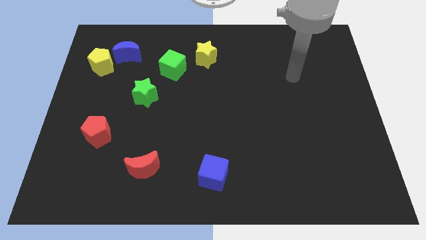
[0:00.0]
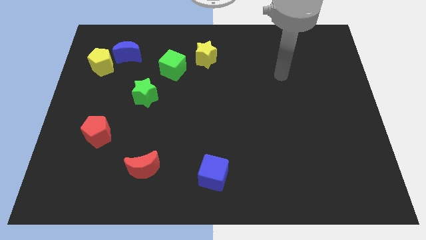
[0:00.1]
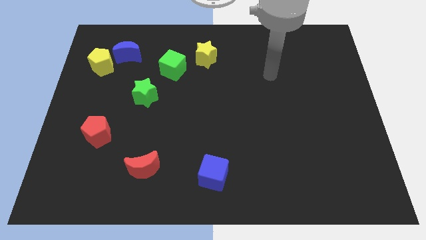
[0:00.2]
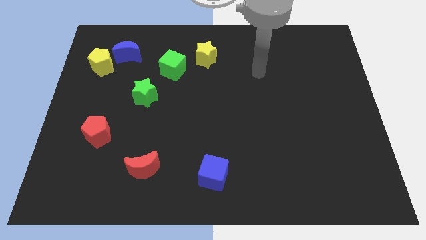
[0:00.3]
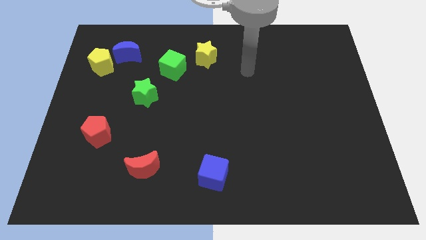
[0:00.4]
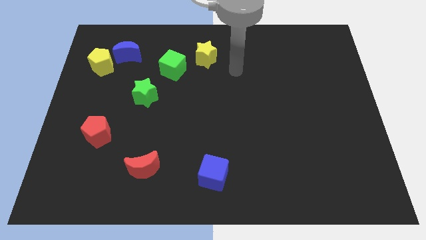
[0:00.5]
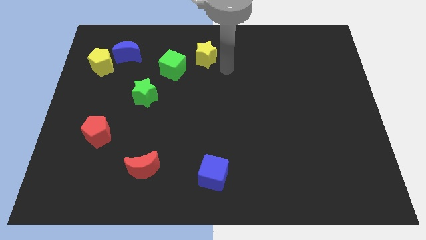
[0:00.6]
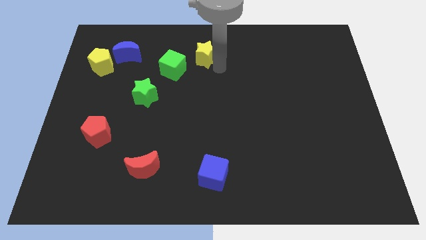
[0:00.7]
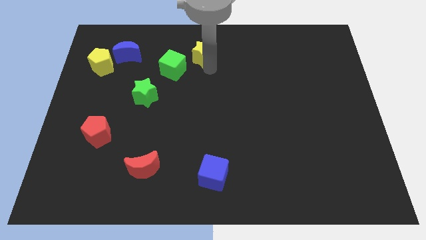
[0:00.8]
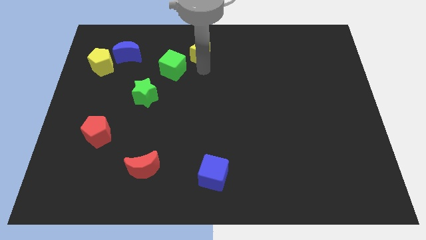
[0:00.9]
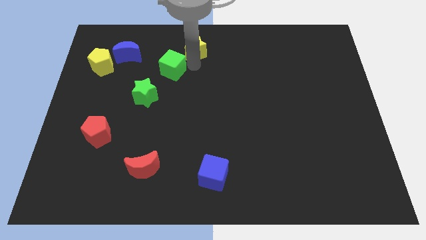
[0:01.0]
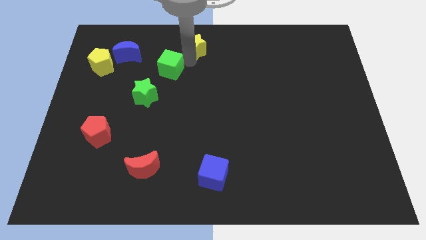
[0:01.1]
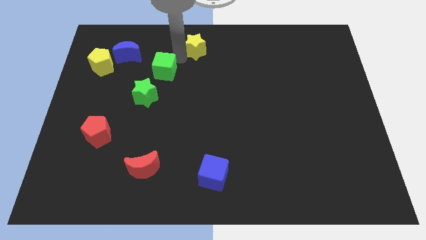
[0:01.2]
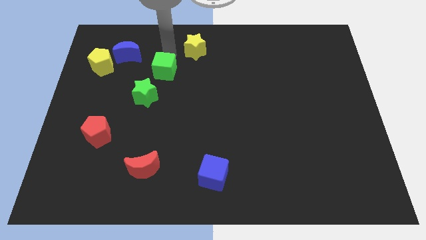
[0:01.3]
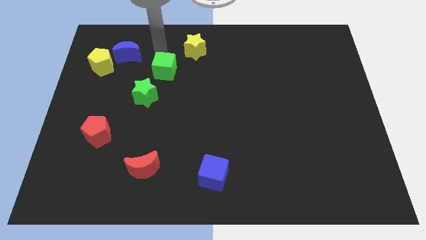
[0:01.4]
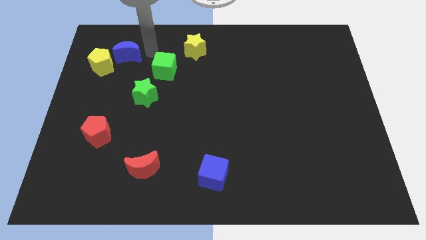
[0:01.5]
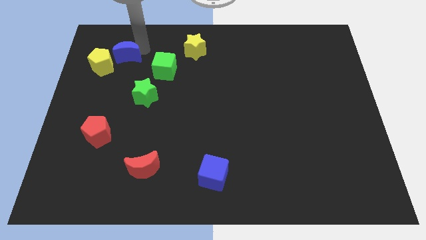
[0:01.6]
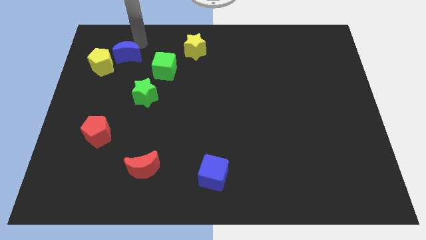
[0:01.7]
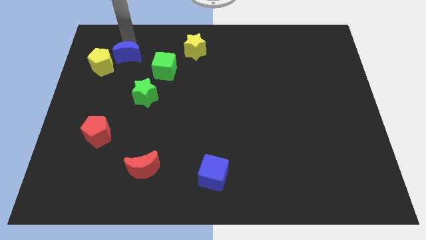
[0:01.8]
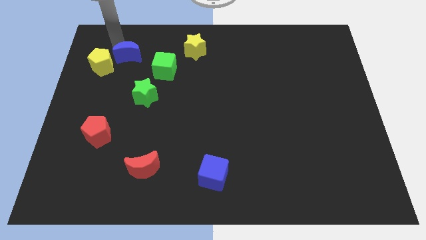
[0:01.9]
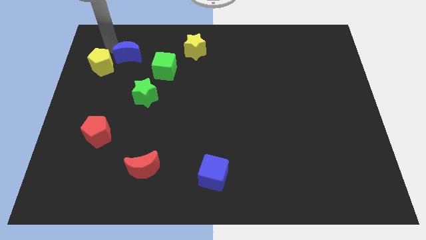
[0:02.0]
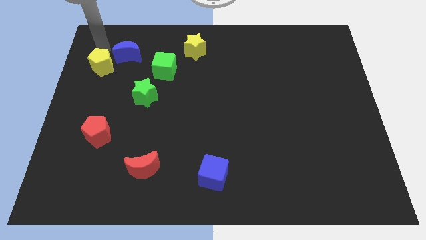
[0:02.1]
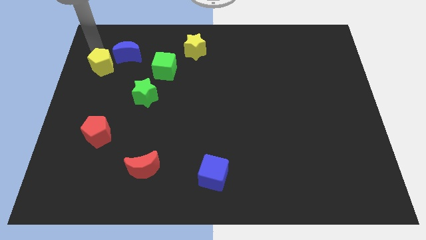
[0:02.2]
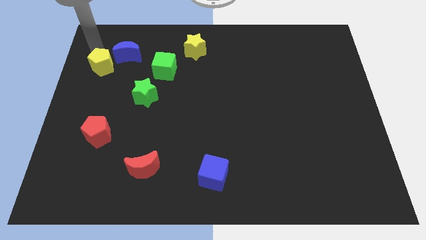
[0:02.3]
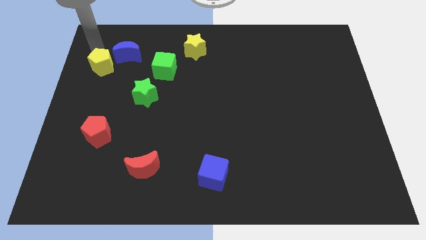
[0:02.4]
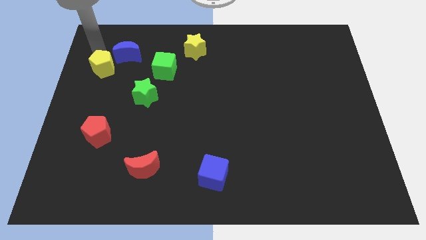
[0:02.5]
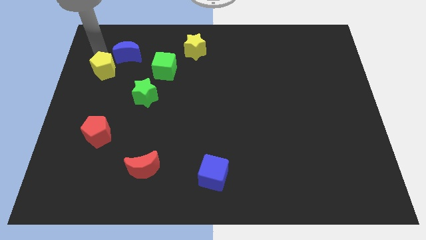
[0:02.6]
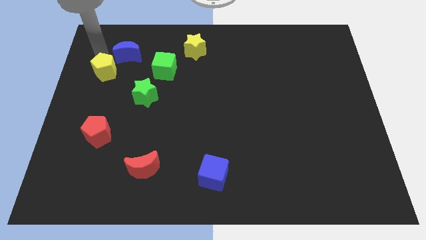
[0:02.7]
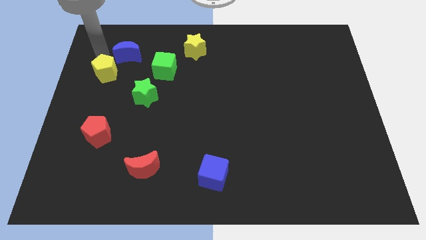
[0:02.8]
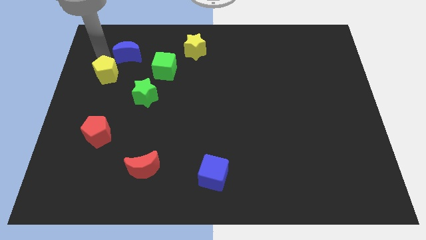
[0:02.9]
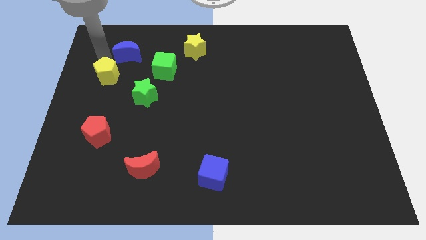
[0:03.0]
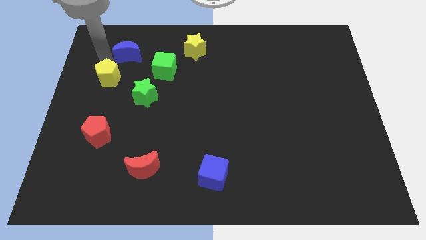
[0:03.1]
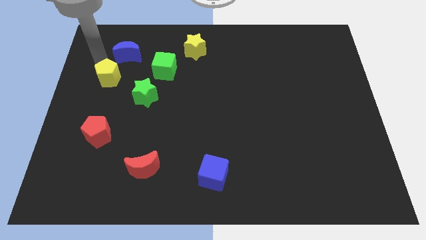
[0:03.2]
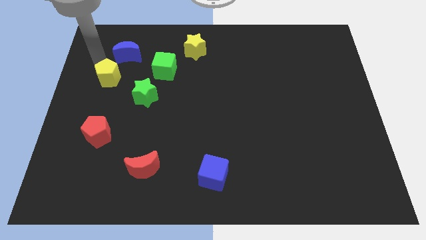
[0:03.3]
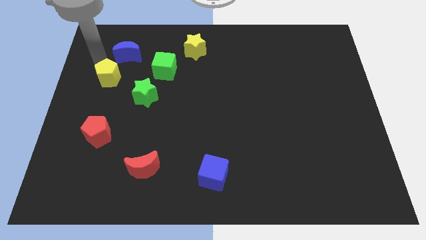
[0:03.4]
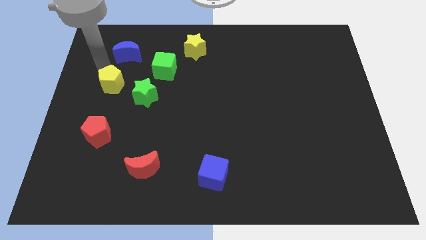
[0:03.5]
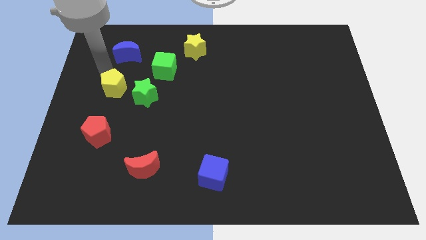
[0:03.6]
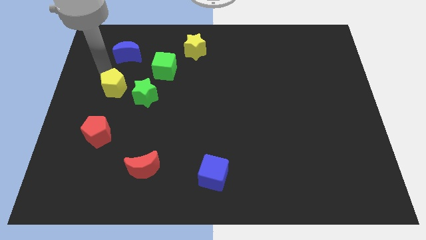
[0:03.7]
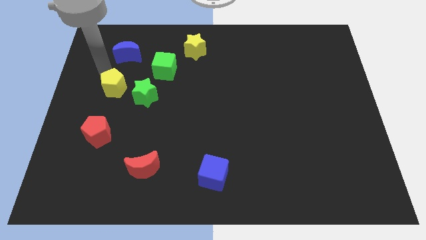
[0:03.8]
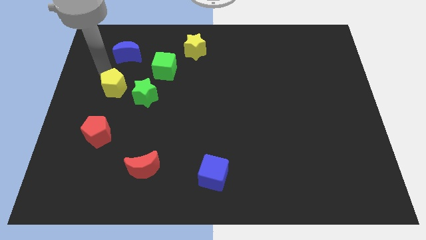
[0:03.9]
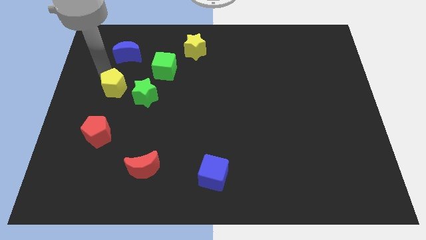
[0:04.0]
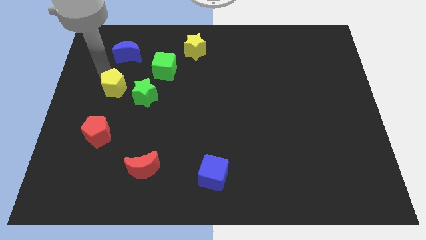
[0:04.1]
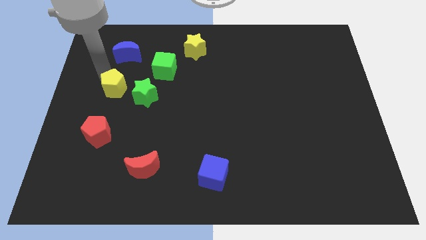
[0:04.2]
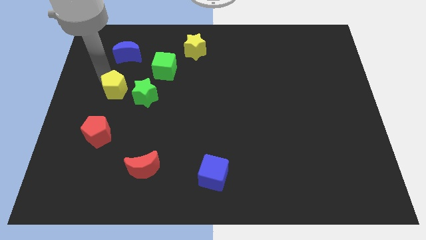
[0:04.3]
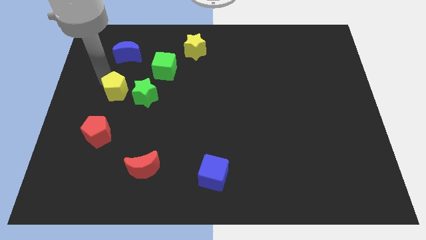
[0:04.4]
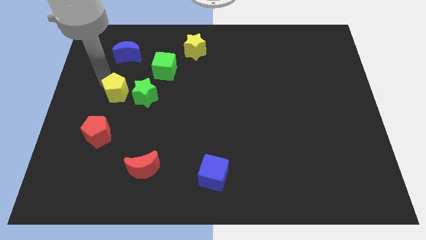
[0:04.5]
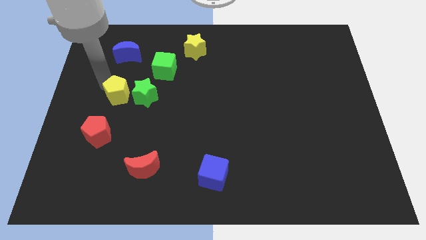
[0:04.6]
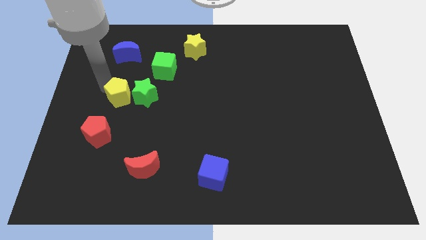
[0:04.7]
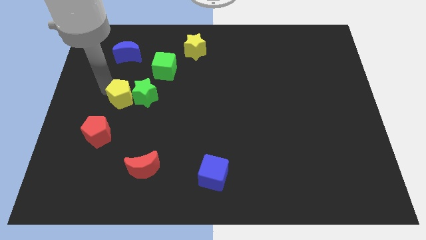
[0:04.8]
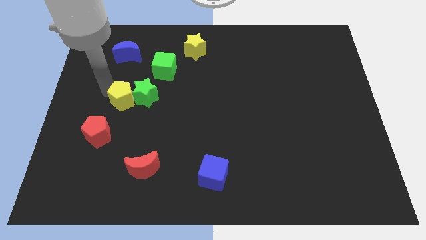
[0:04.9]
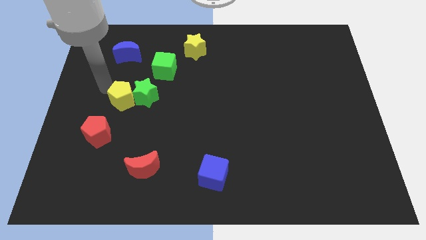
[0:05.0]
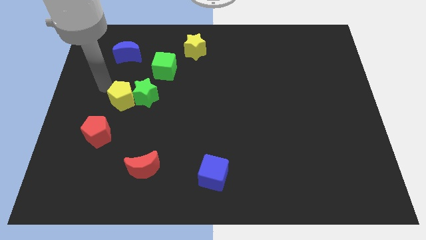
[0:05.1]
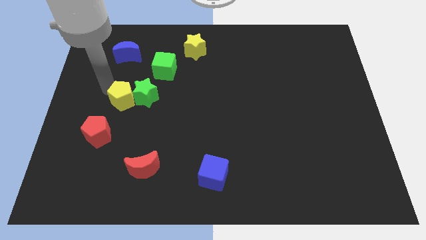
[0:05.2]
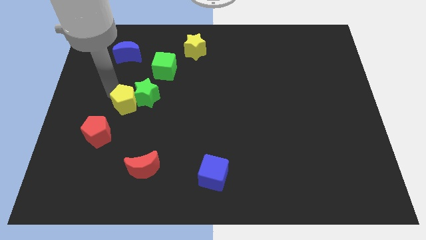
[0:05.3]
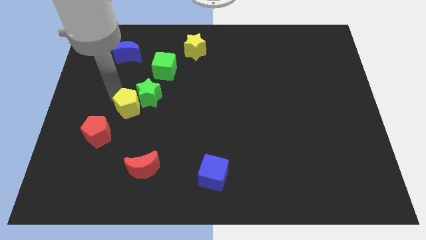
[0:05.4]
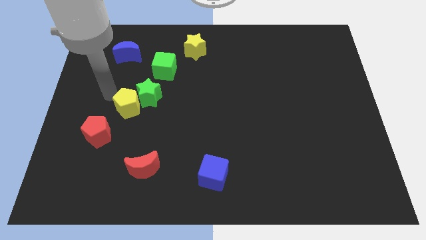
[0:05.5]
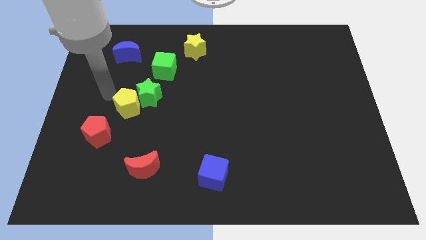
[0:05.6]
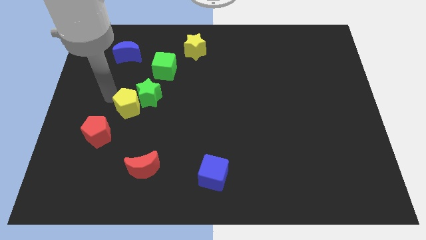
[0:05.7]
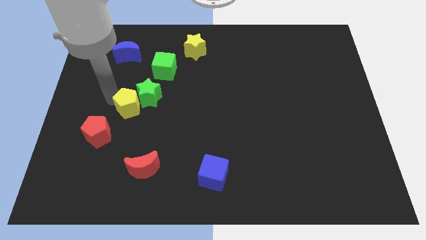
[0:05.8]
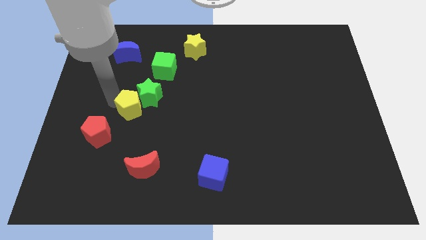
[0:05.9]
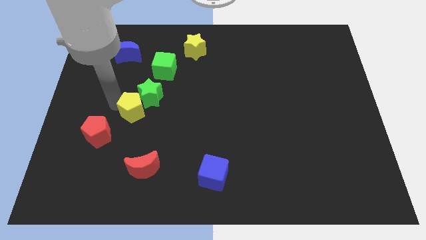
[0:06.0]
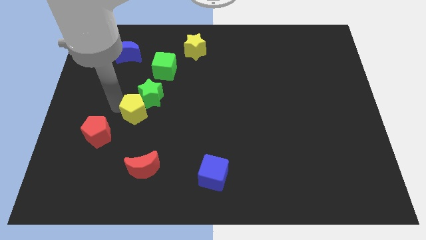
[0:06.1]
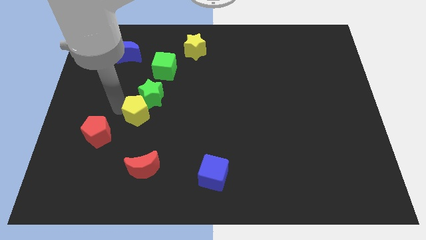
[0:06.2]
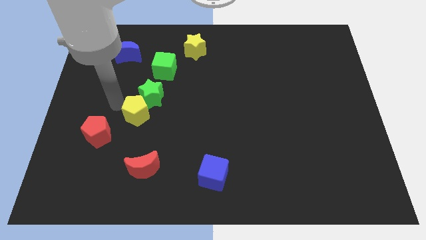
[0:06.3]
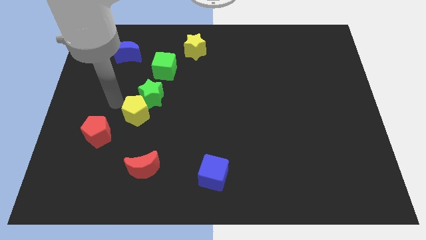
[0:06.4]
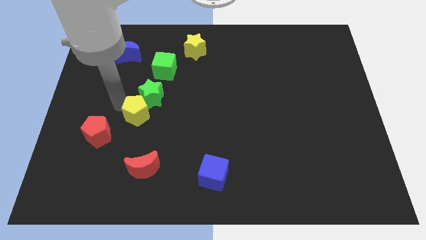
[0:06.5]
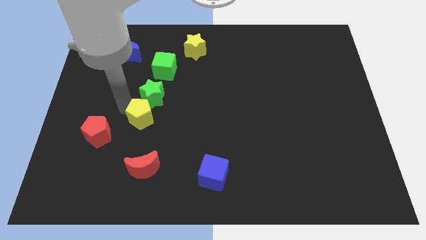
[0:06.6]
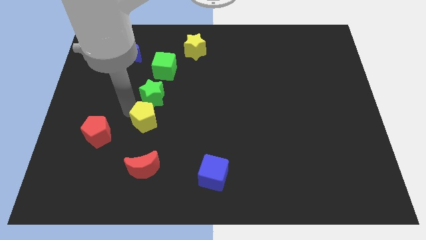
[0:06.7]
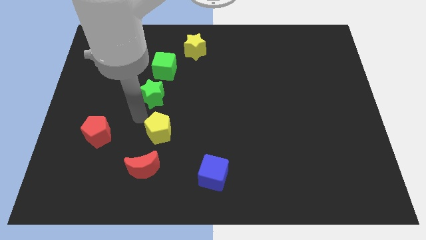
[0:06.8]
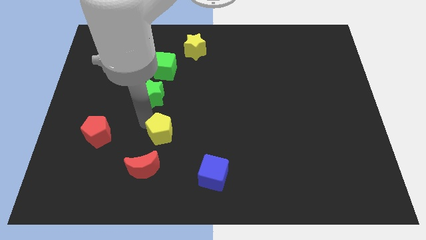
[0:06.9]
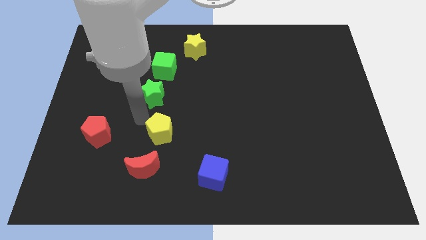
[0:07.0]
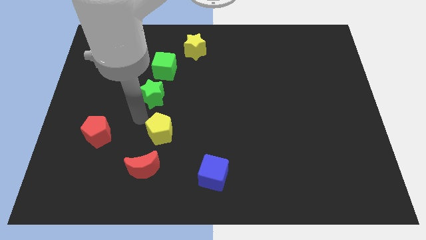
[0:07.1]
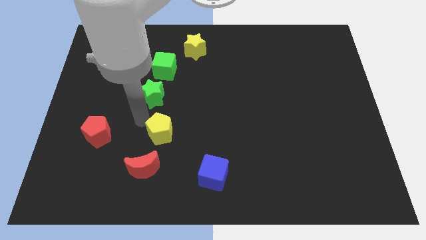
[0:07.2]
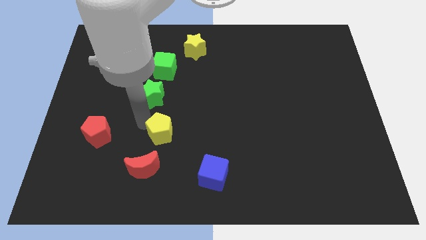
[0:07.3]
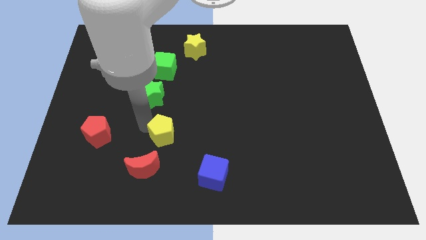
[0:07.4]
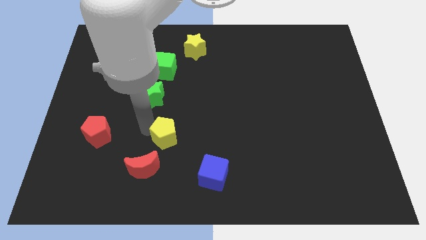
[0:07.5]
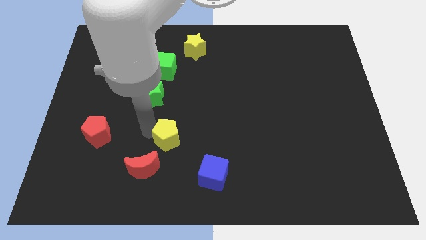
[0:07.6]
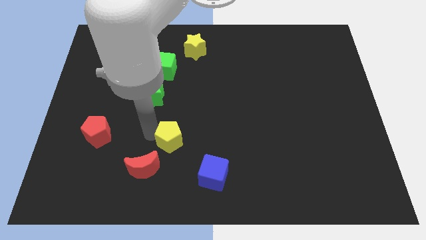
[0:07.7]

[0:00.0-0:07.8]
move the yellow pentagon diagonally up and to the left of the blue cube
